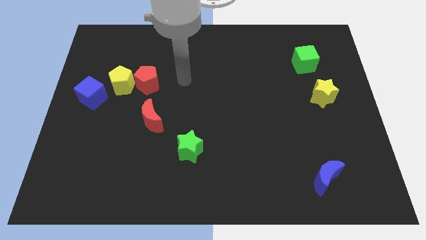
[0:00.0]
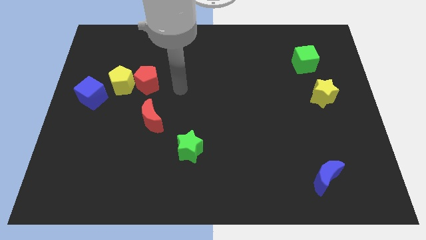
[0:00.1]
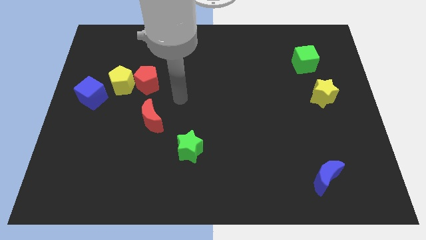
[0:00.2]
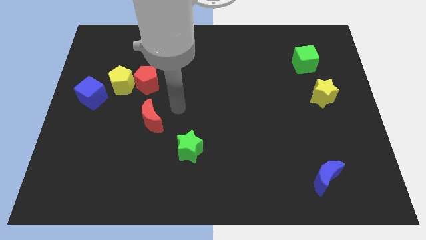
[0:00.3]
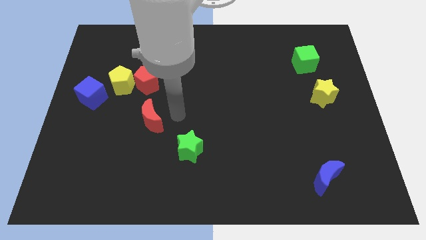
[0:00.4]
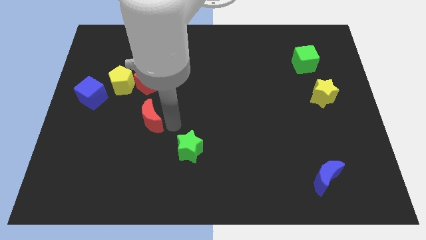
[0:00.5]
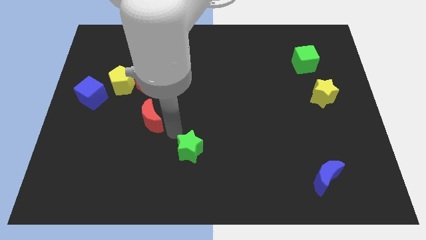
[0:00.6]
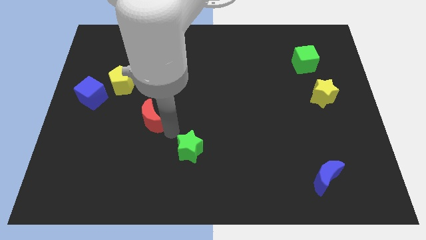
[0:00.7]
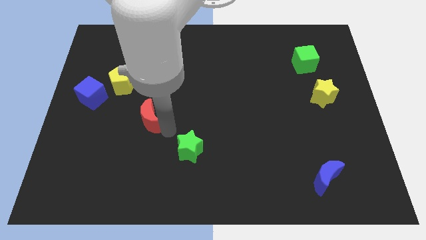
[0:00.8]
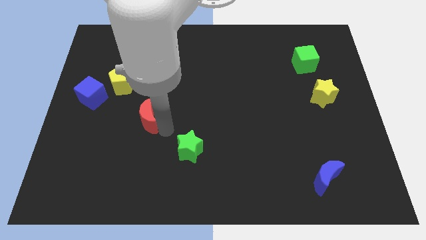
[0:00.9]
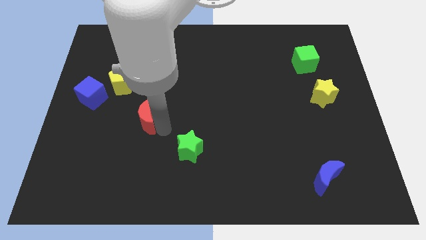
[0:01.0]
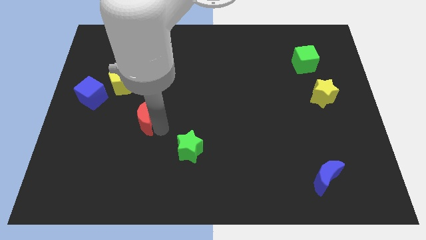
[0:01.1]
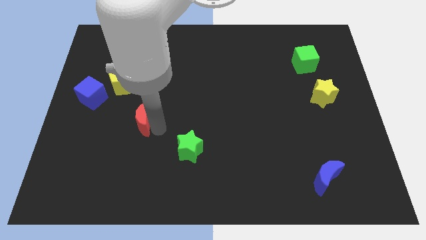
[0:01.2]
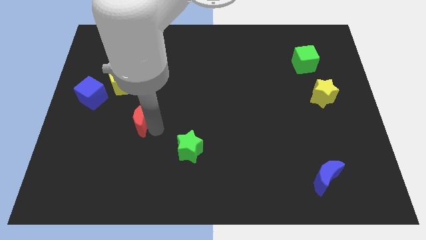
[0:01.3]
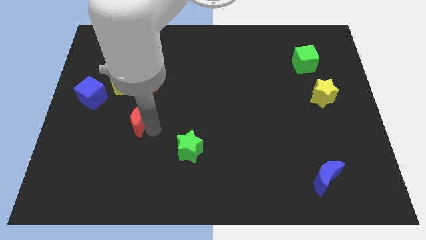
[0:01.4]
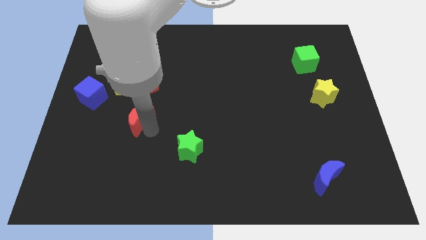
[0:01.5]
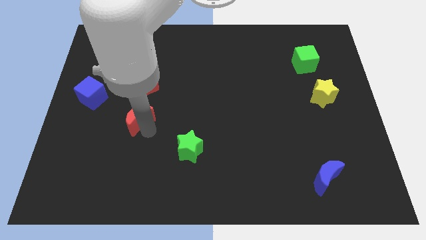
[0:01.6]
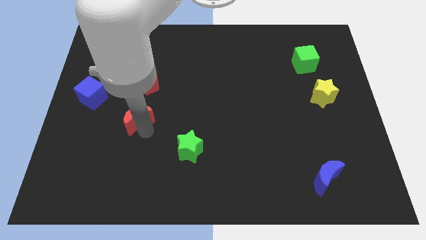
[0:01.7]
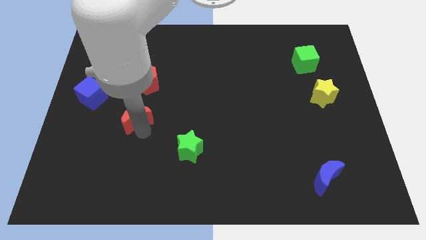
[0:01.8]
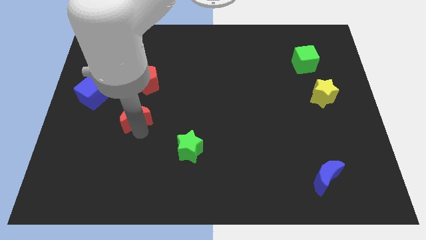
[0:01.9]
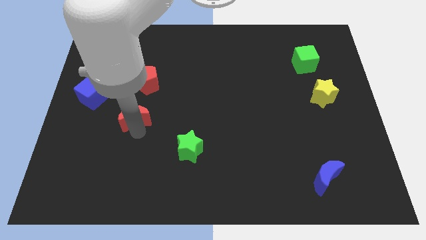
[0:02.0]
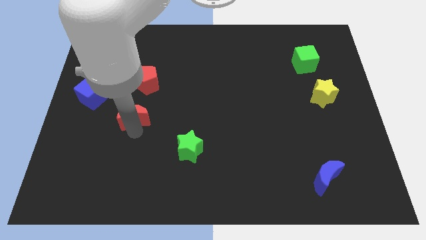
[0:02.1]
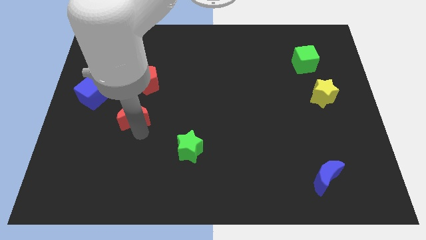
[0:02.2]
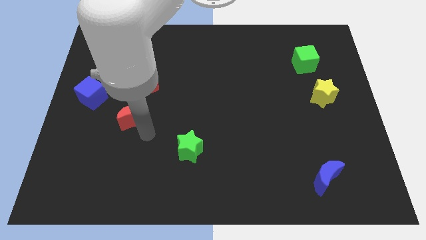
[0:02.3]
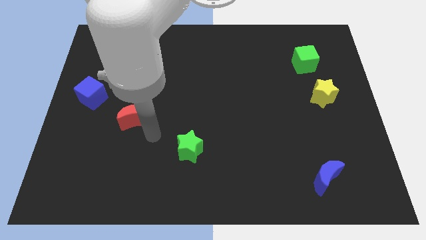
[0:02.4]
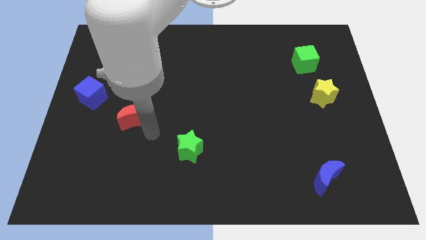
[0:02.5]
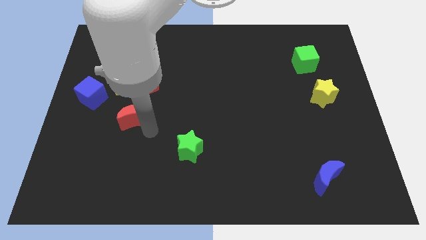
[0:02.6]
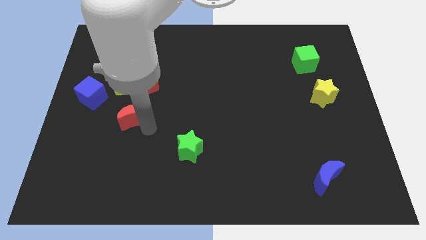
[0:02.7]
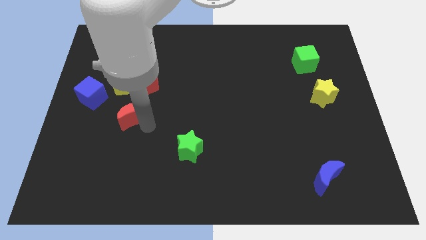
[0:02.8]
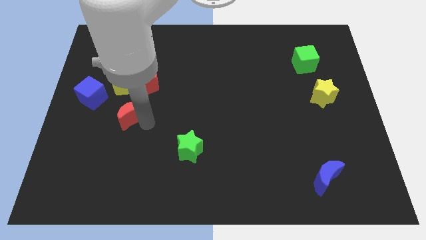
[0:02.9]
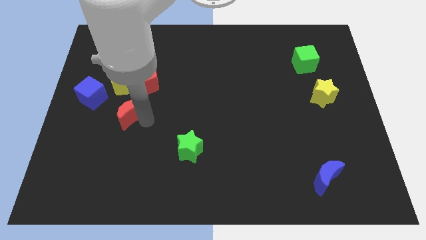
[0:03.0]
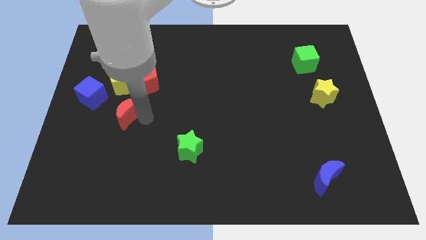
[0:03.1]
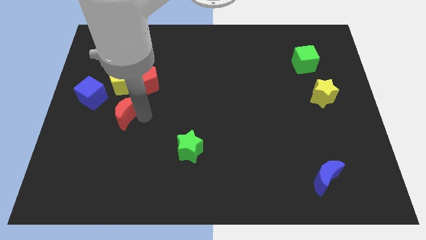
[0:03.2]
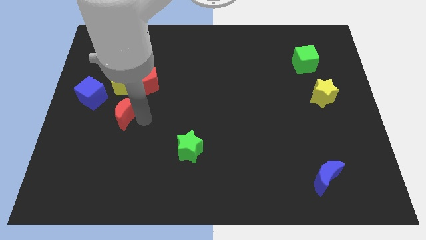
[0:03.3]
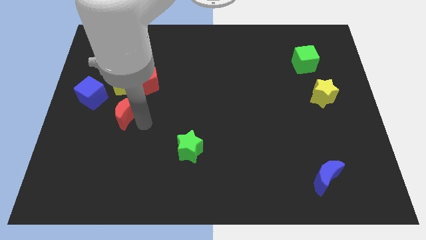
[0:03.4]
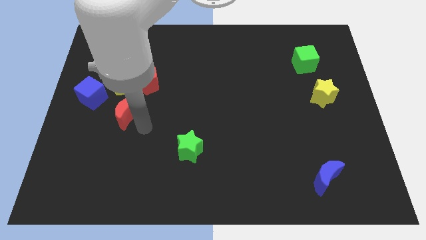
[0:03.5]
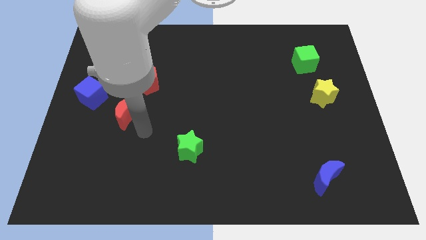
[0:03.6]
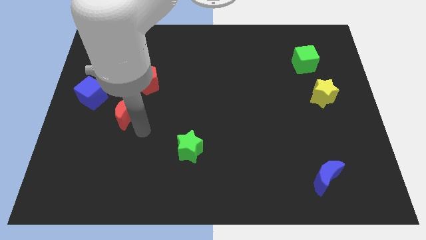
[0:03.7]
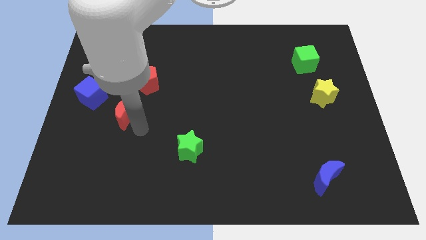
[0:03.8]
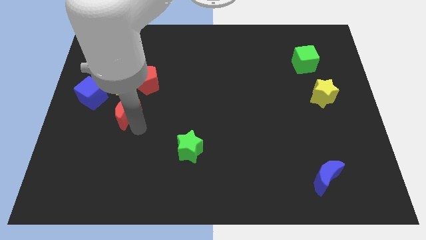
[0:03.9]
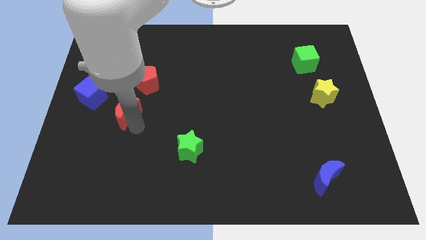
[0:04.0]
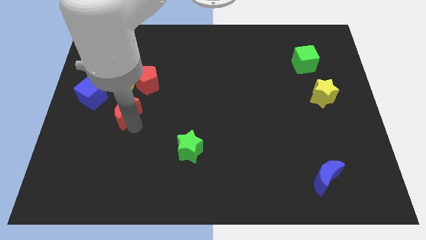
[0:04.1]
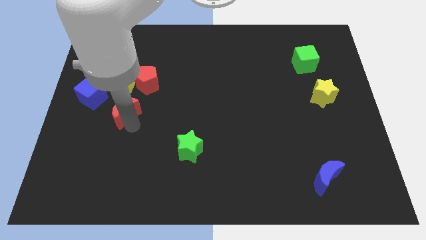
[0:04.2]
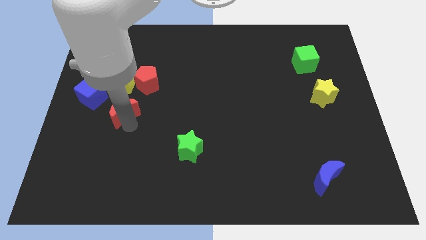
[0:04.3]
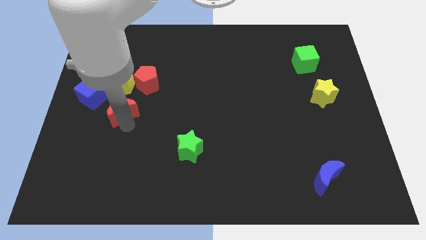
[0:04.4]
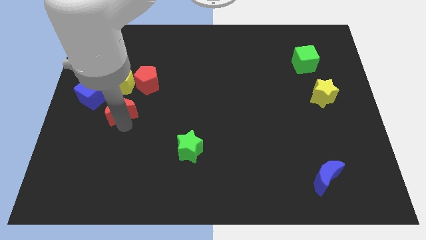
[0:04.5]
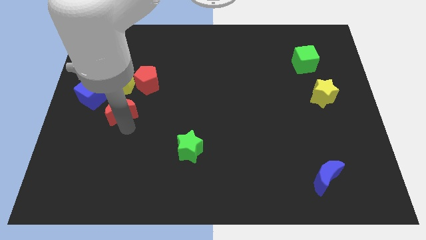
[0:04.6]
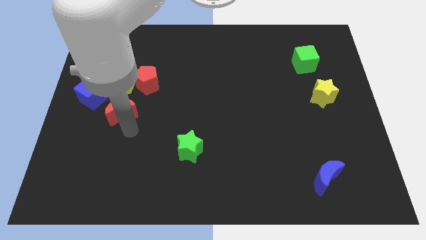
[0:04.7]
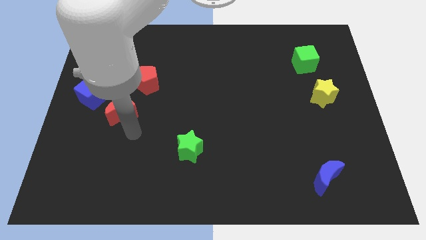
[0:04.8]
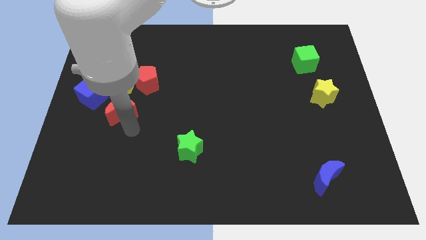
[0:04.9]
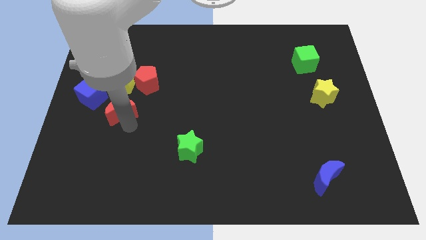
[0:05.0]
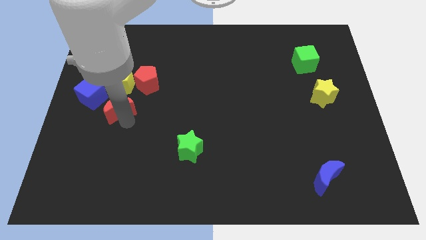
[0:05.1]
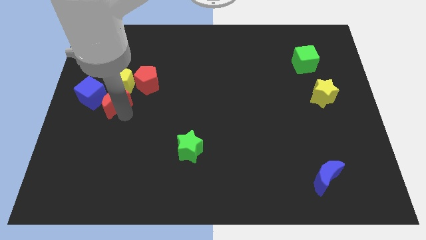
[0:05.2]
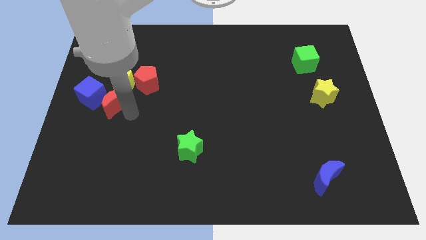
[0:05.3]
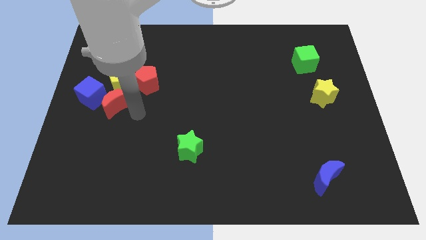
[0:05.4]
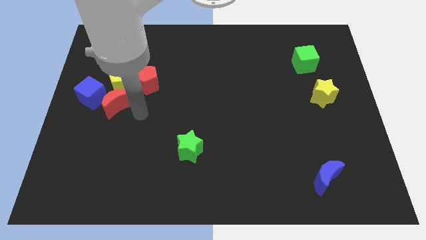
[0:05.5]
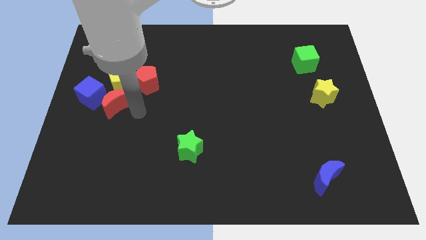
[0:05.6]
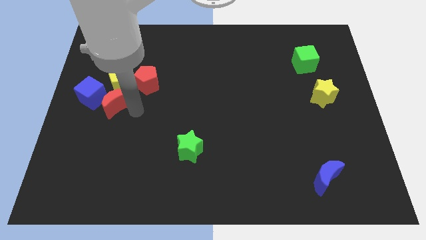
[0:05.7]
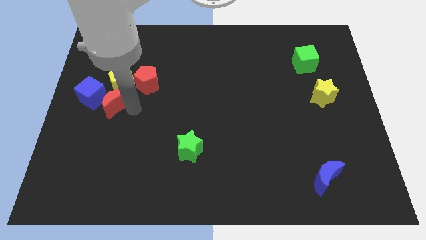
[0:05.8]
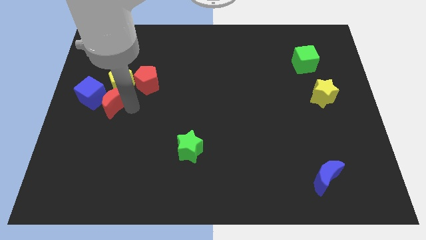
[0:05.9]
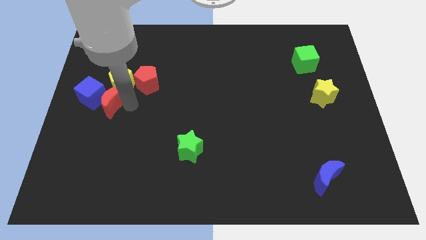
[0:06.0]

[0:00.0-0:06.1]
push the red moon close to the blue cube
